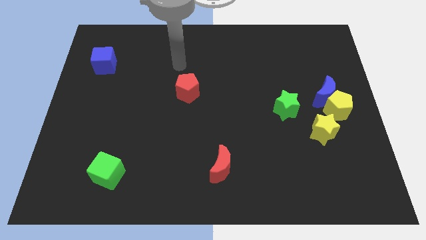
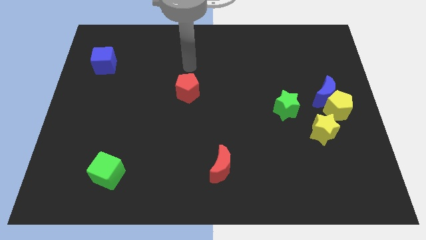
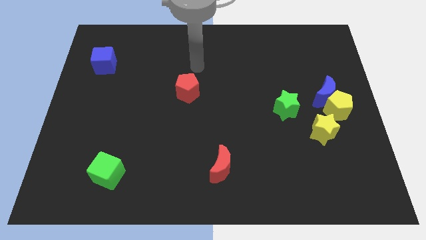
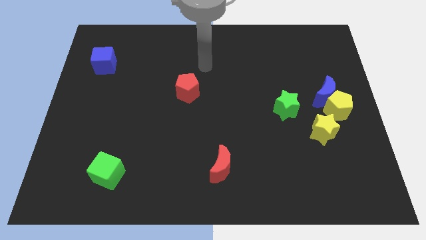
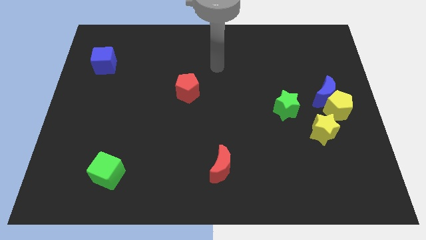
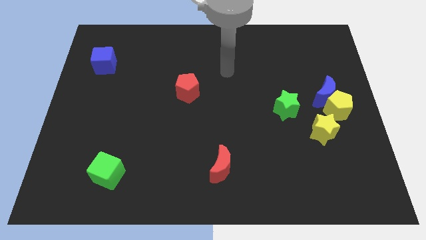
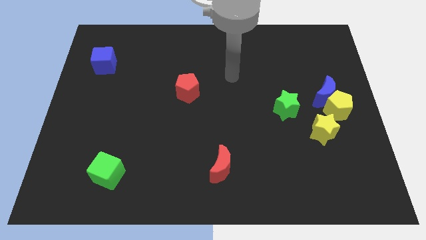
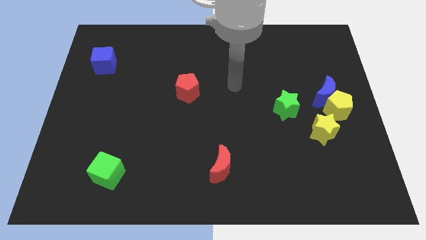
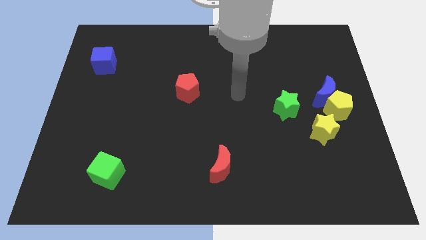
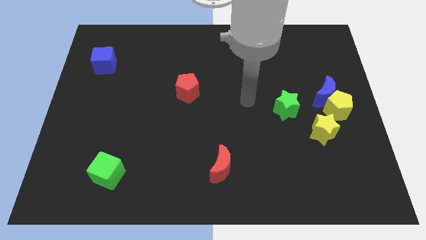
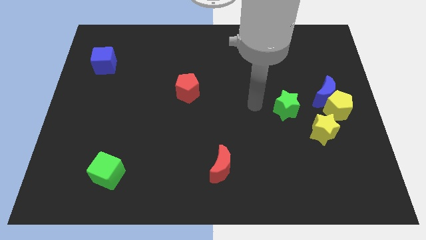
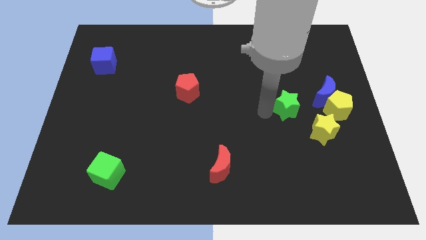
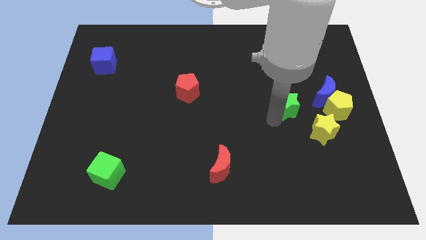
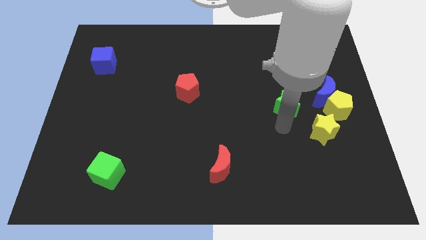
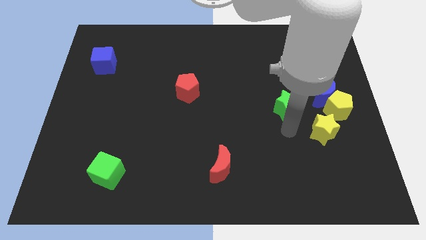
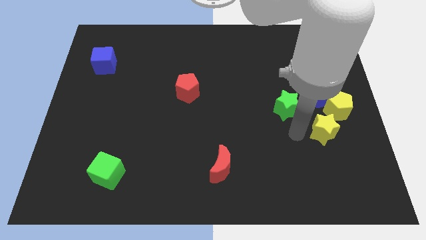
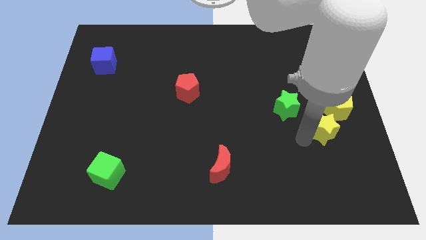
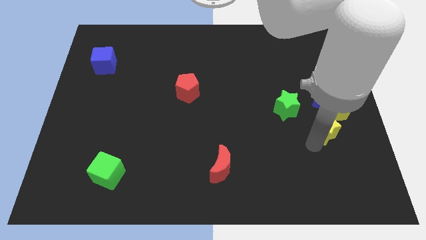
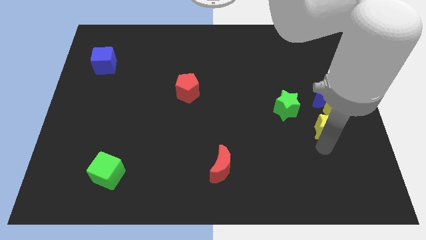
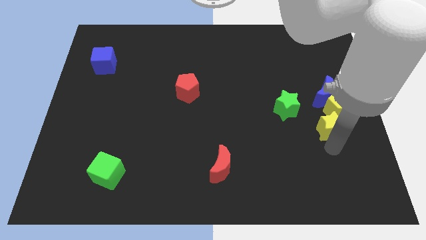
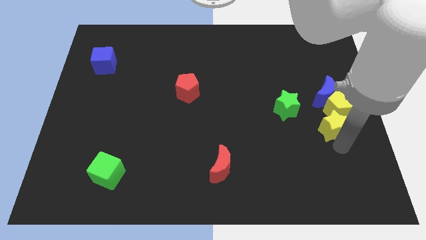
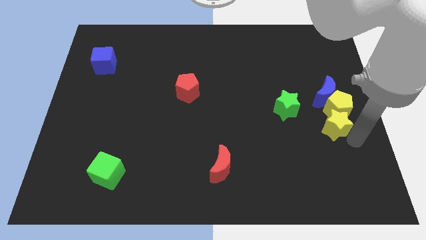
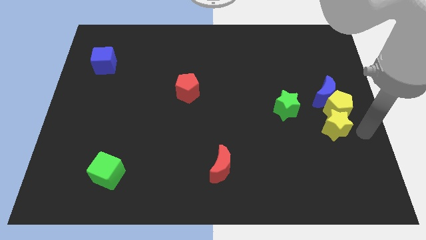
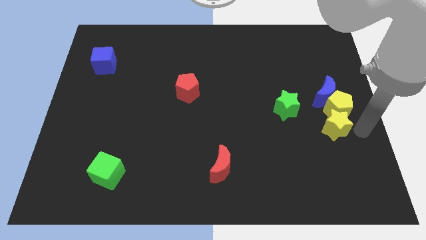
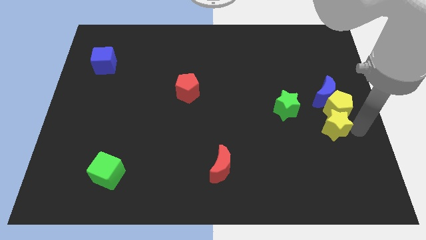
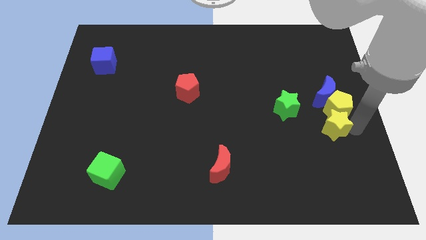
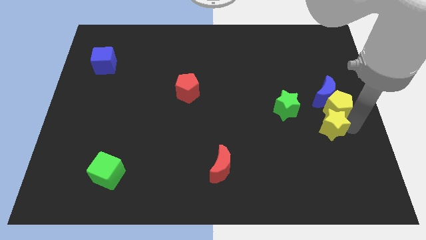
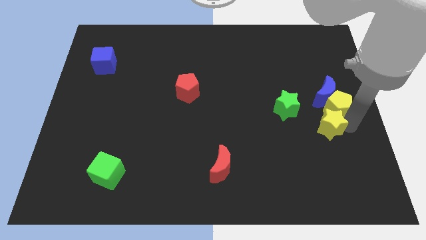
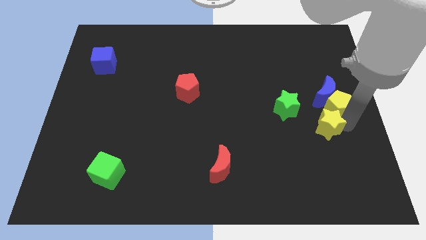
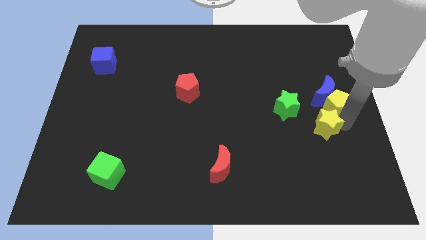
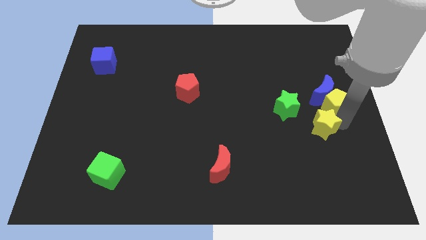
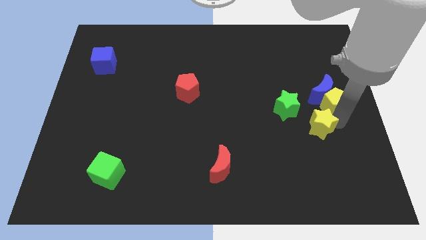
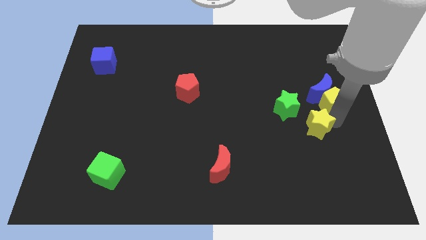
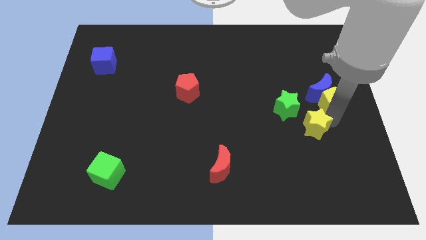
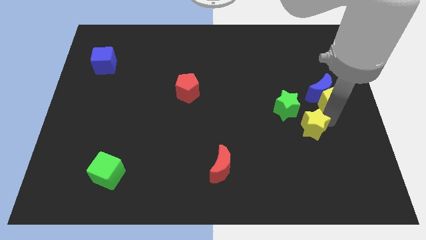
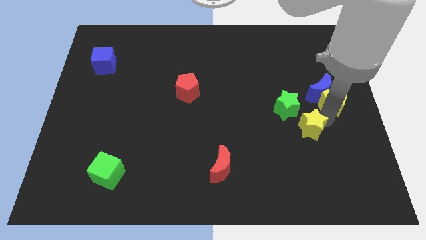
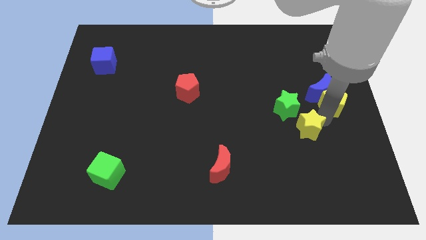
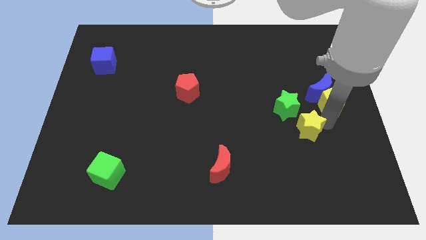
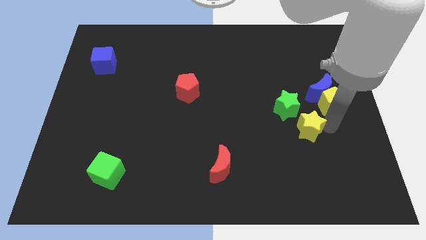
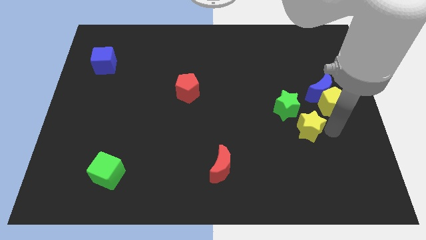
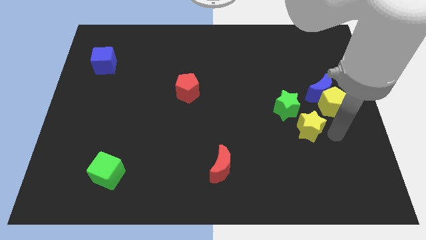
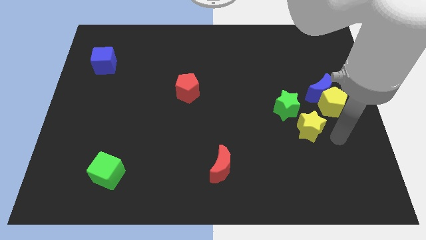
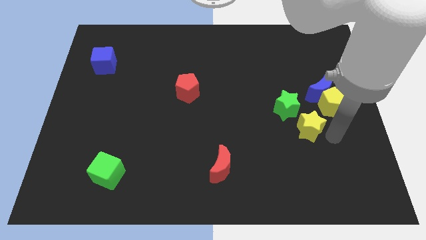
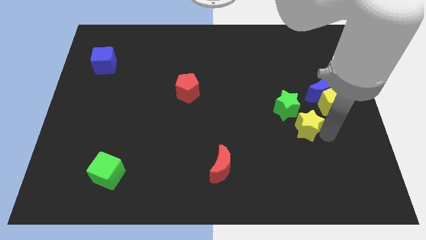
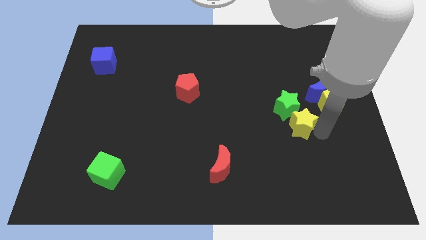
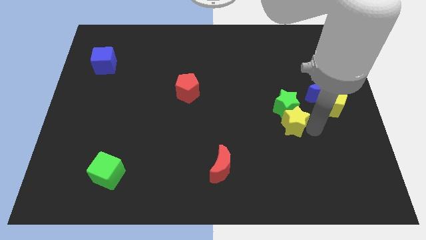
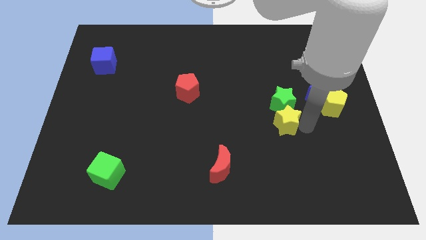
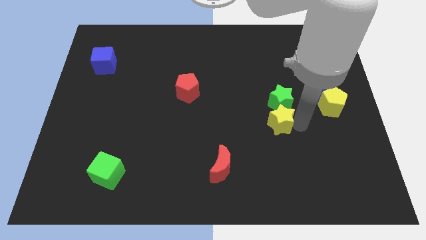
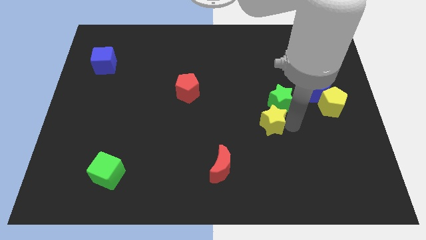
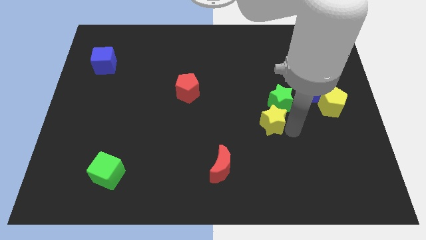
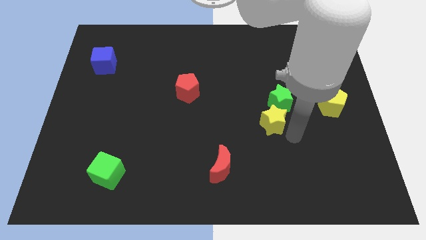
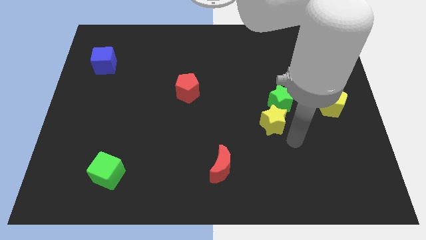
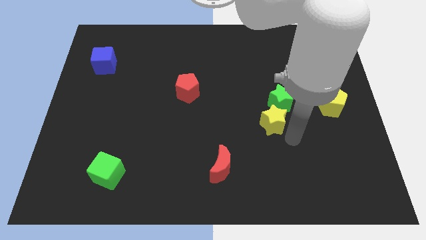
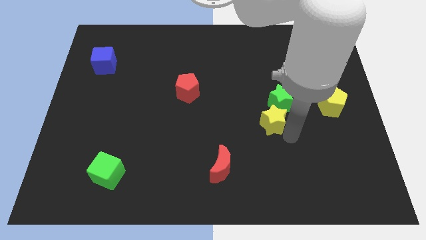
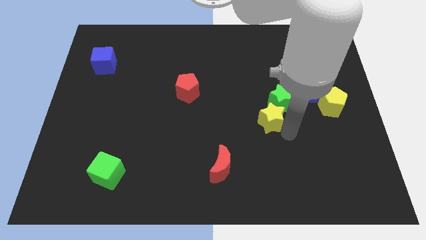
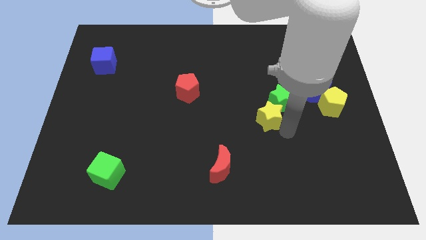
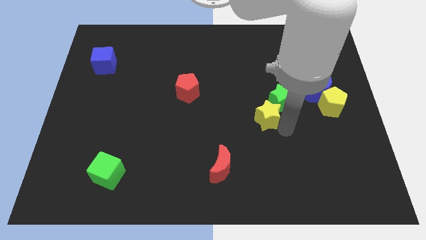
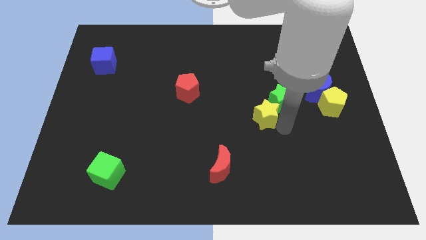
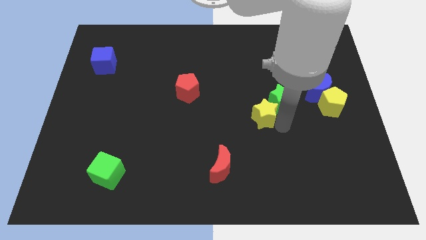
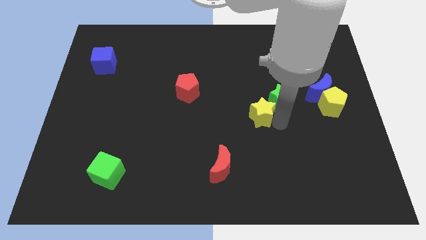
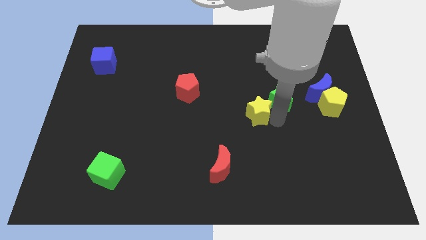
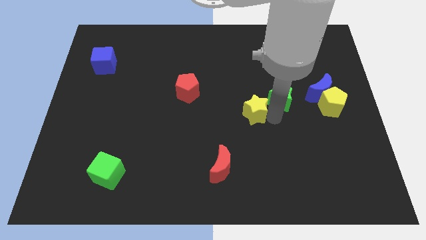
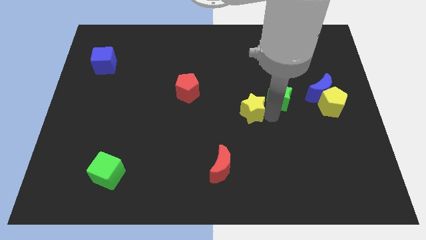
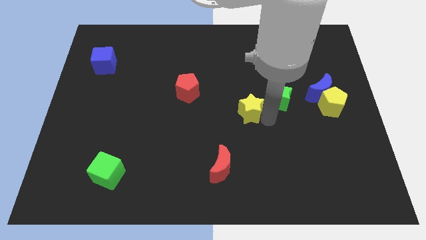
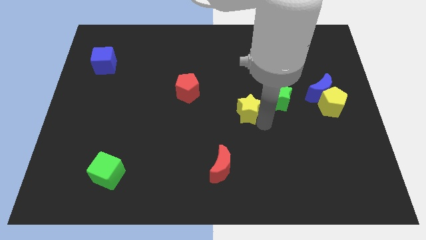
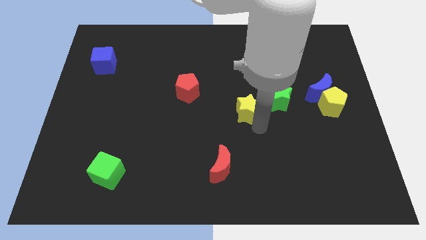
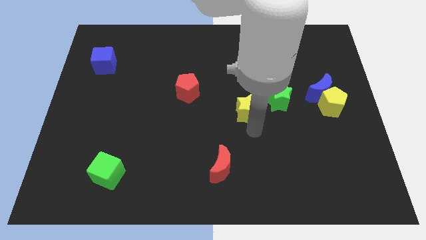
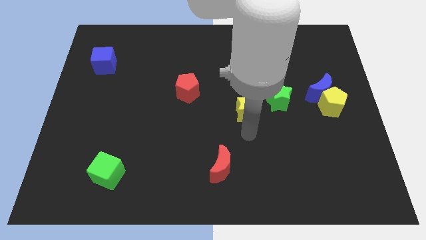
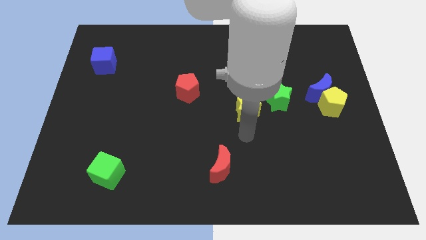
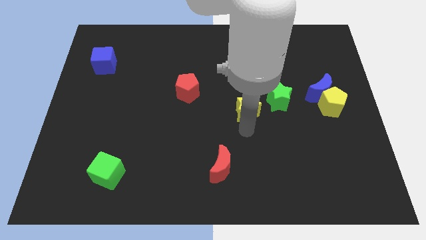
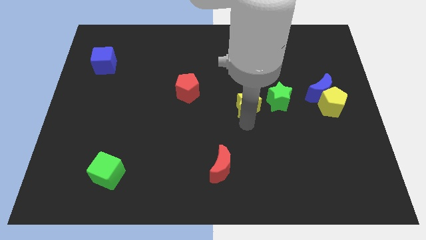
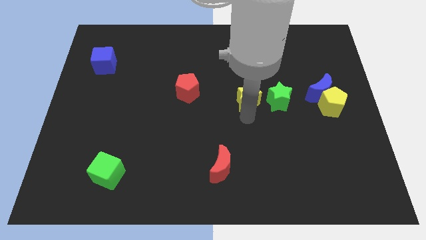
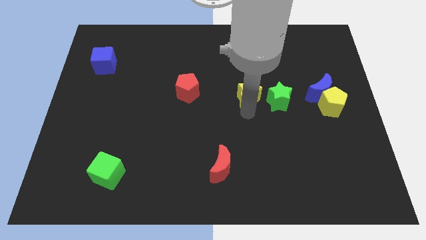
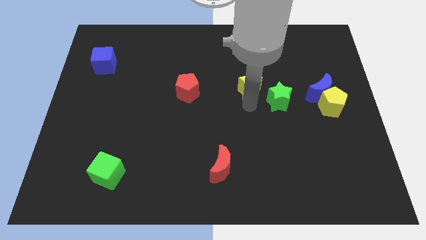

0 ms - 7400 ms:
move the yellow star diagonally up and left

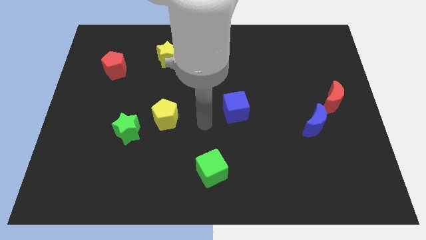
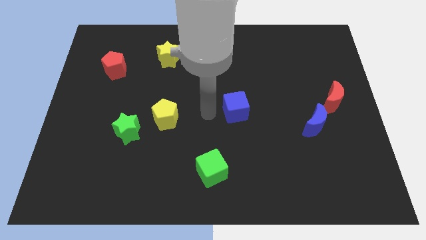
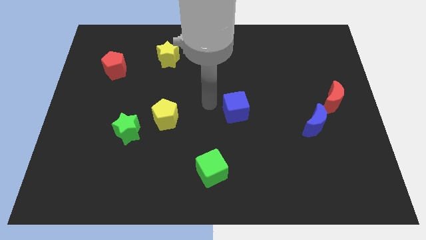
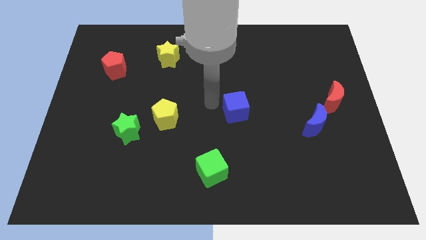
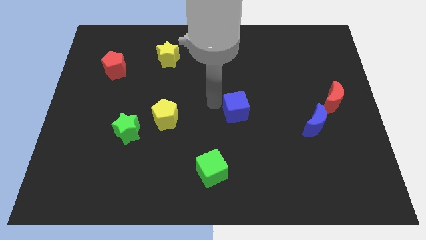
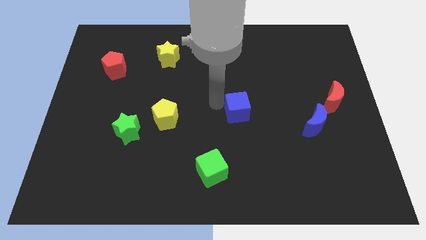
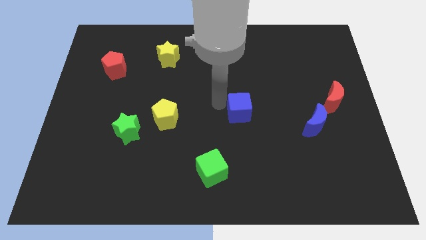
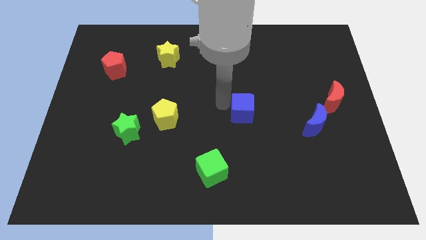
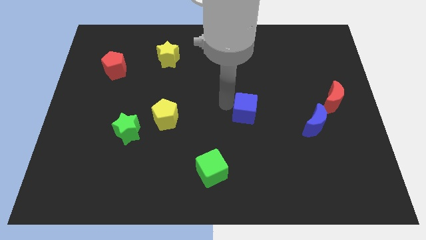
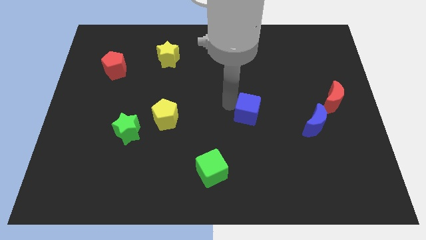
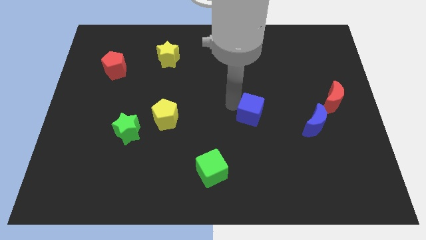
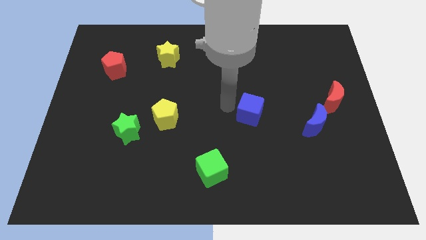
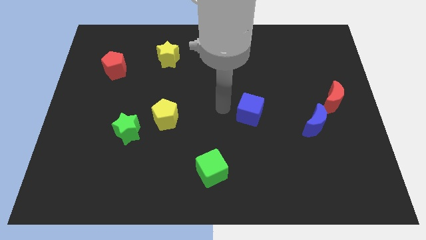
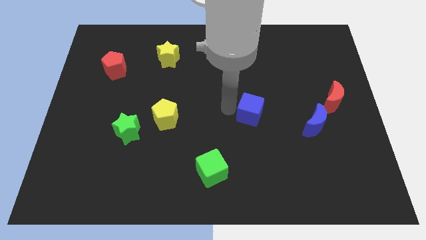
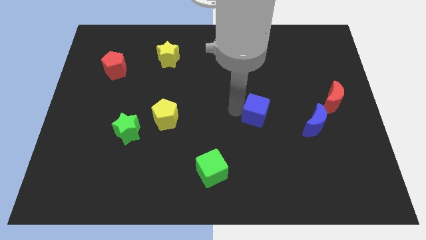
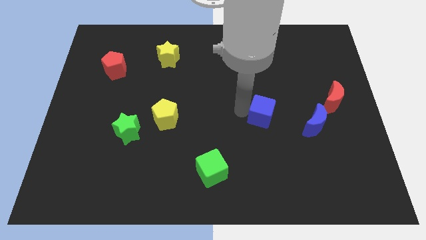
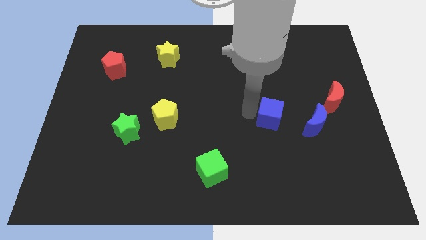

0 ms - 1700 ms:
push the blue cube a little bit to the right
